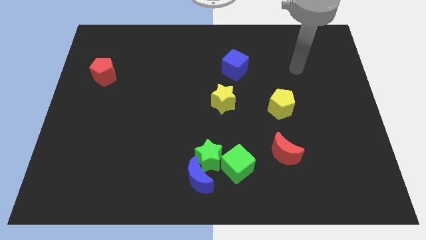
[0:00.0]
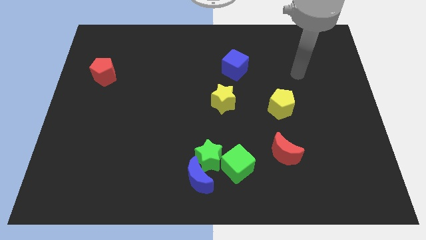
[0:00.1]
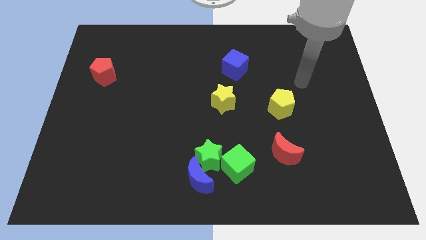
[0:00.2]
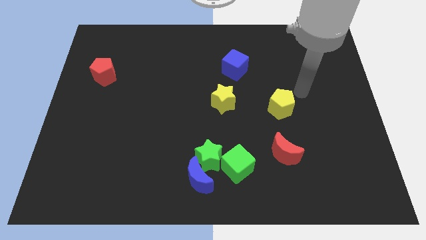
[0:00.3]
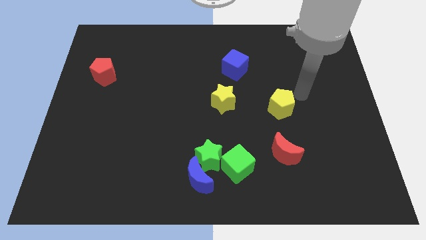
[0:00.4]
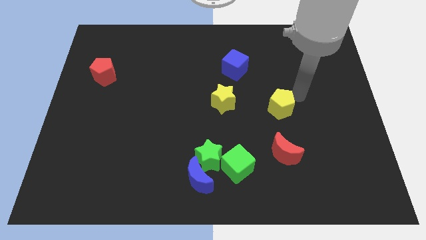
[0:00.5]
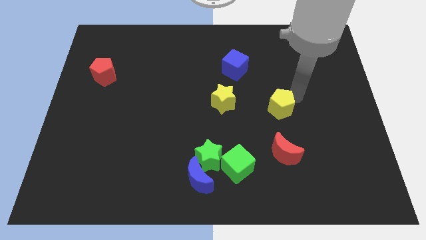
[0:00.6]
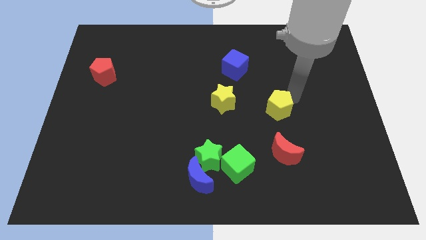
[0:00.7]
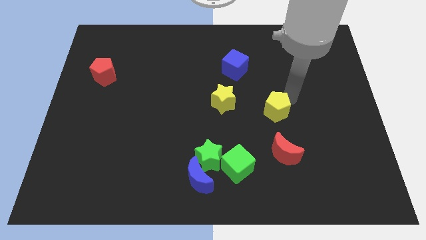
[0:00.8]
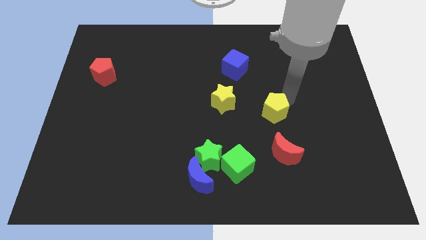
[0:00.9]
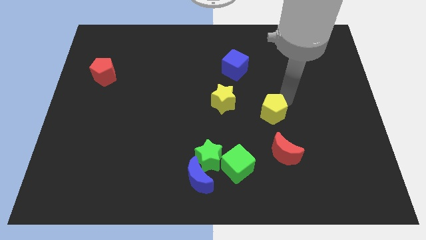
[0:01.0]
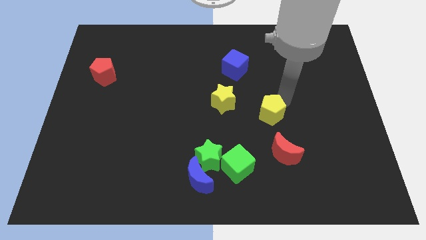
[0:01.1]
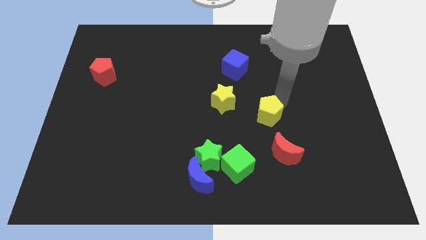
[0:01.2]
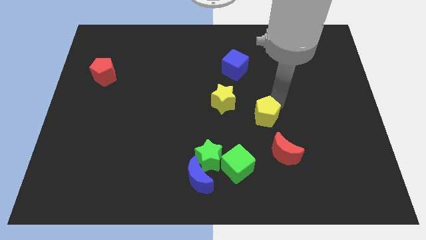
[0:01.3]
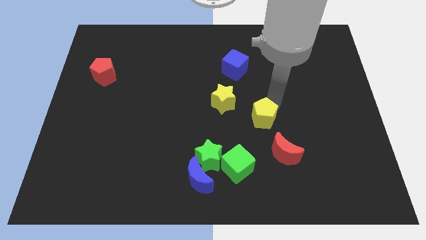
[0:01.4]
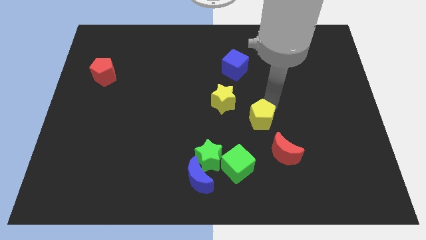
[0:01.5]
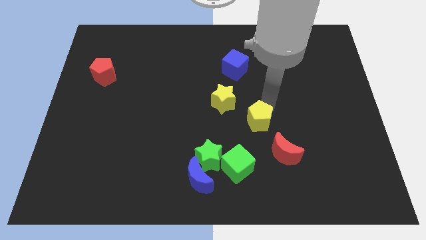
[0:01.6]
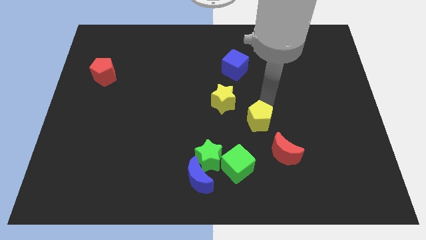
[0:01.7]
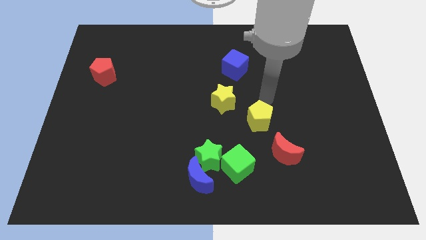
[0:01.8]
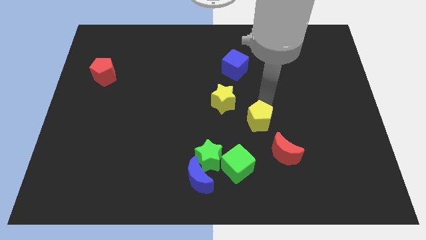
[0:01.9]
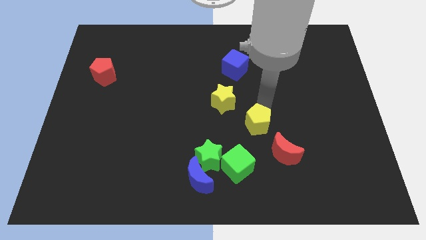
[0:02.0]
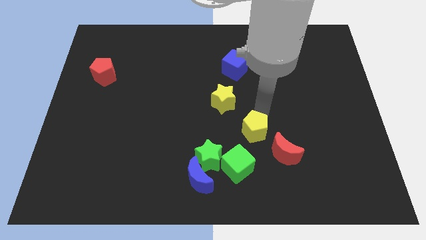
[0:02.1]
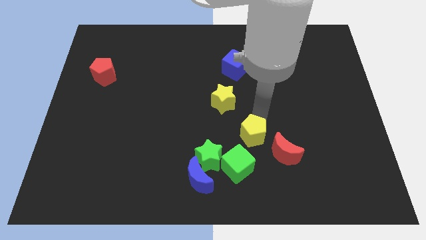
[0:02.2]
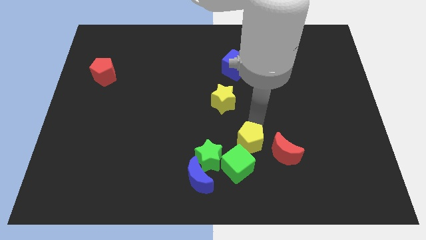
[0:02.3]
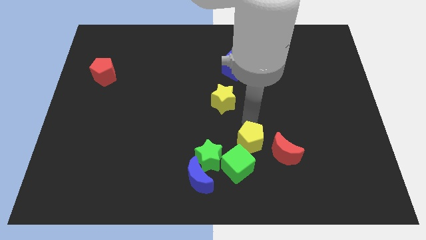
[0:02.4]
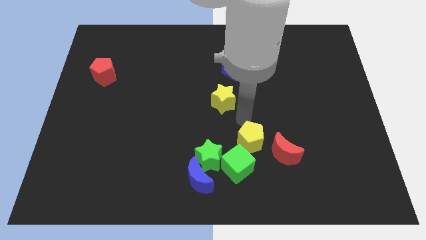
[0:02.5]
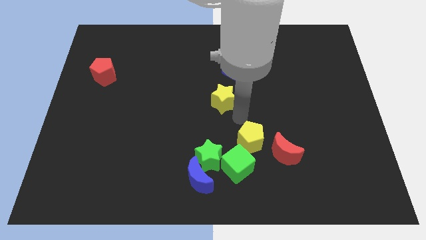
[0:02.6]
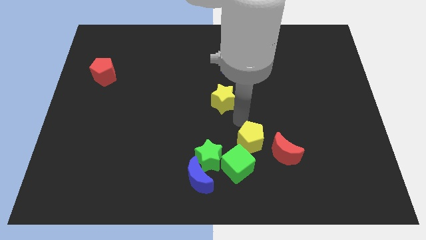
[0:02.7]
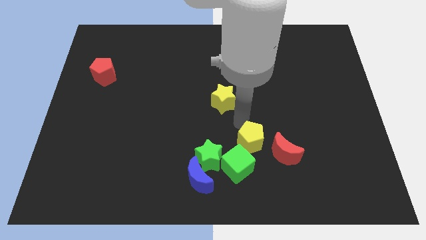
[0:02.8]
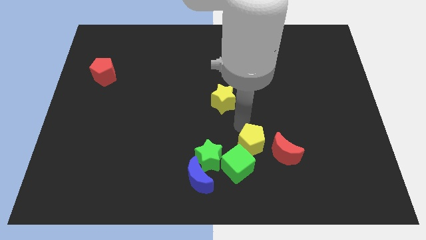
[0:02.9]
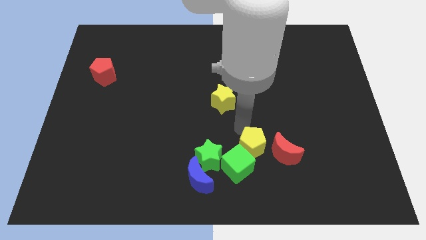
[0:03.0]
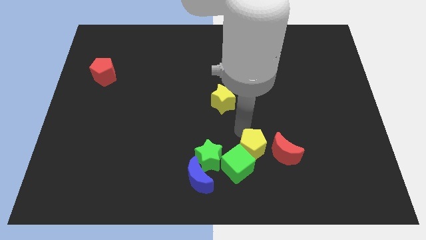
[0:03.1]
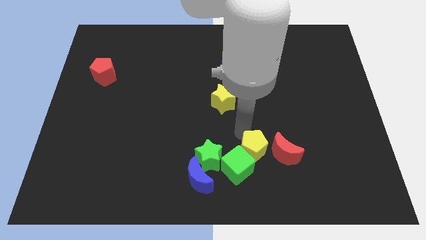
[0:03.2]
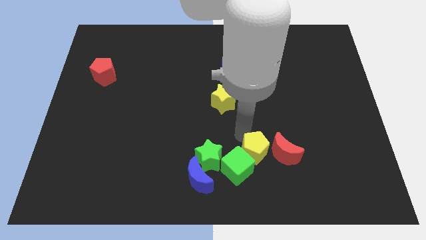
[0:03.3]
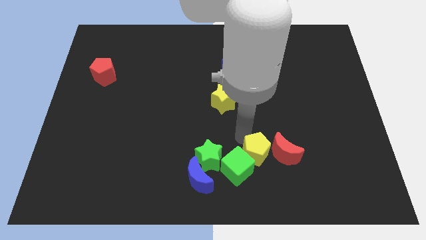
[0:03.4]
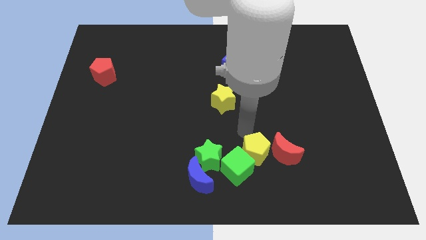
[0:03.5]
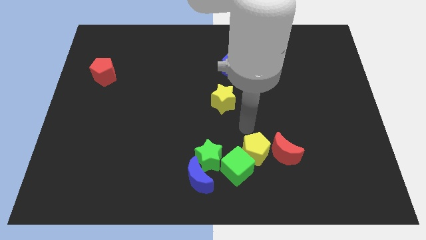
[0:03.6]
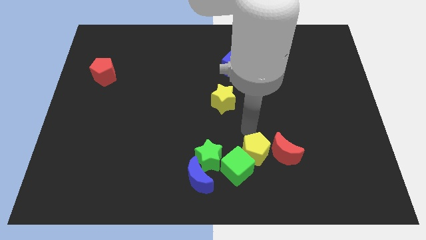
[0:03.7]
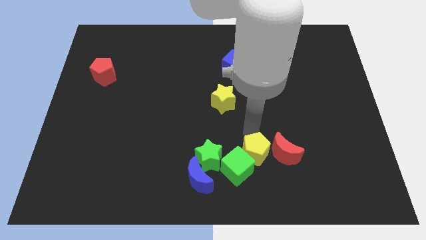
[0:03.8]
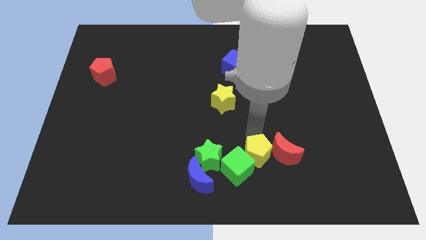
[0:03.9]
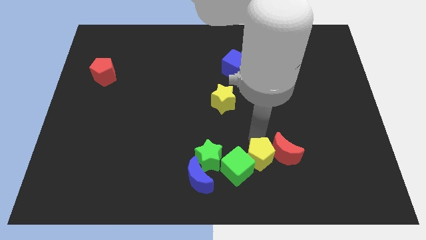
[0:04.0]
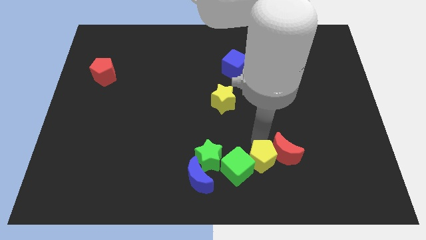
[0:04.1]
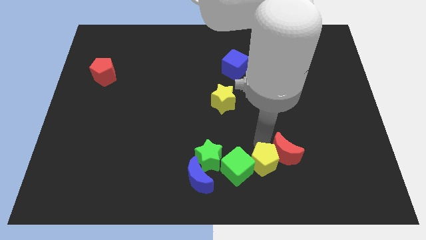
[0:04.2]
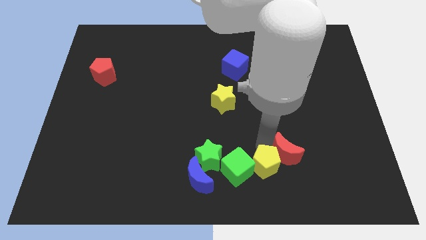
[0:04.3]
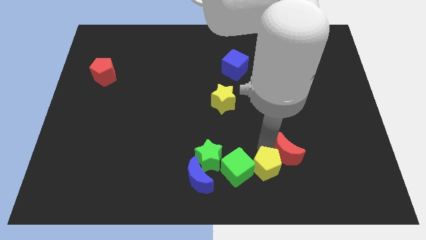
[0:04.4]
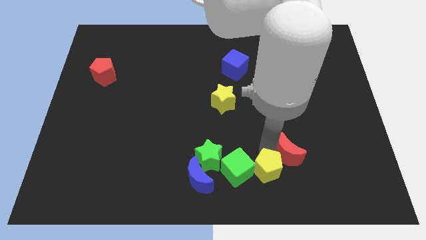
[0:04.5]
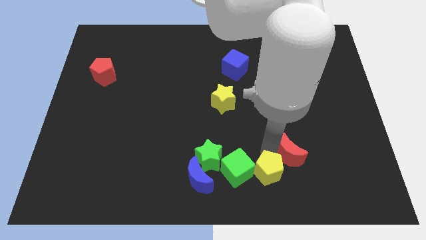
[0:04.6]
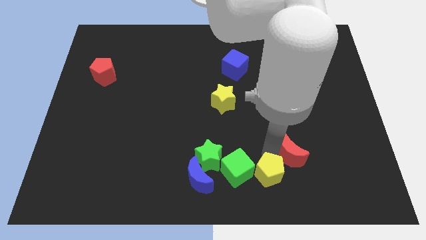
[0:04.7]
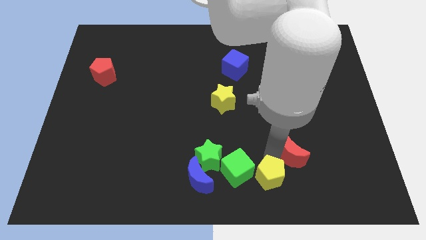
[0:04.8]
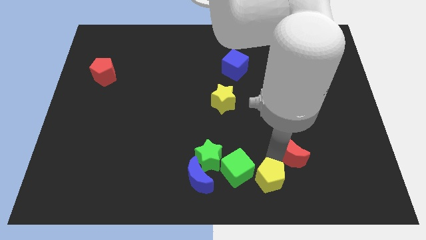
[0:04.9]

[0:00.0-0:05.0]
put the yellow pentagon to the bottom side

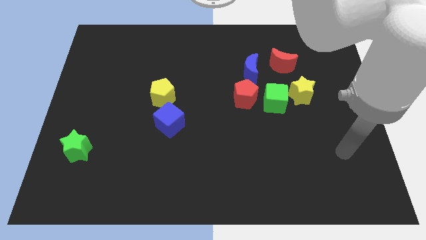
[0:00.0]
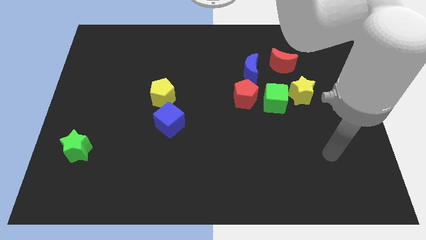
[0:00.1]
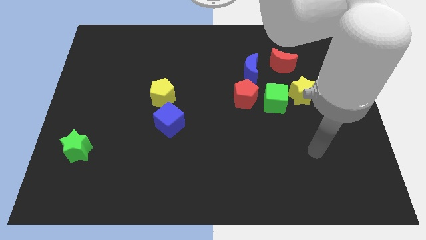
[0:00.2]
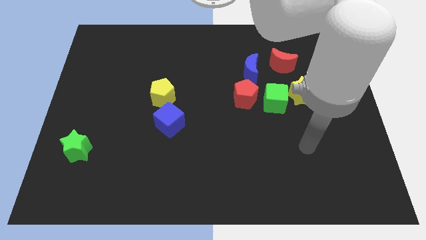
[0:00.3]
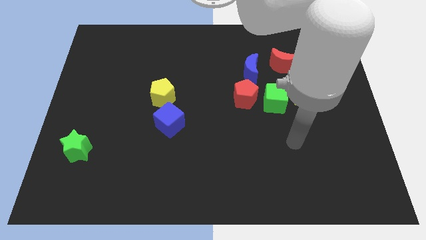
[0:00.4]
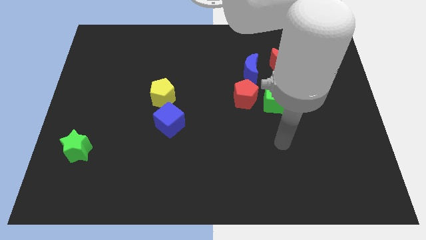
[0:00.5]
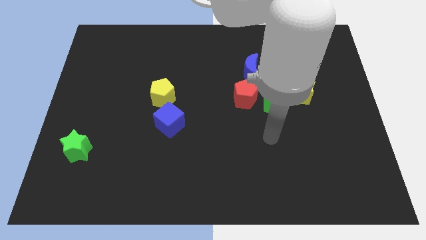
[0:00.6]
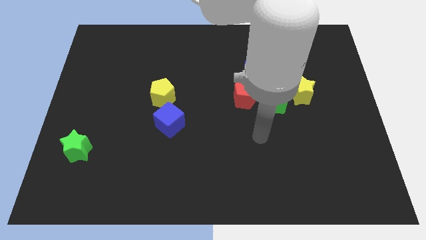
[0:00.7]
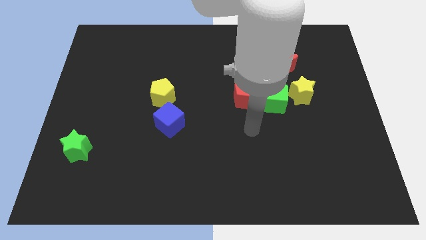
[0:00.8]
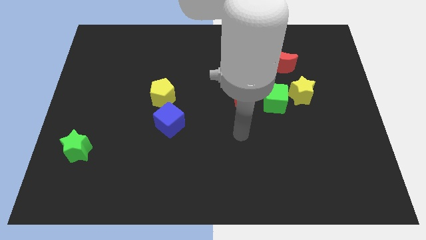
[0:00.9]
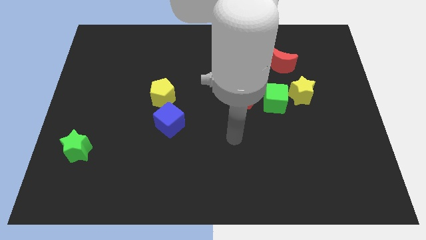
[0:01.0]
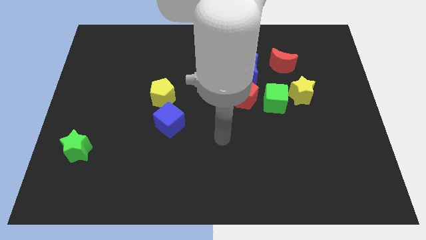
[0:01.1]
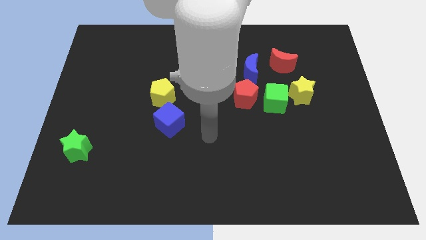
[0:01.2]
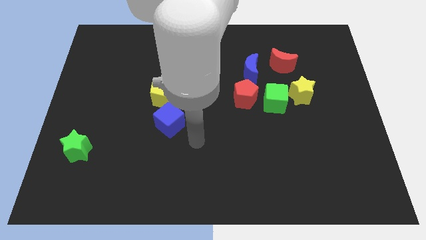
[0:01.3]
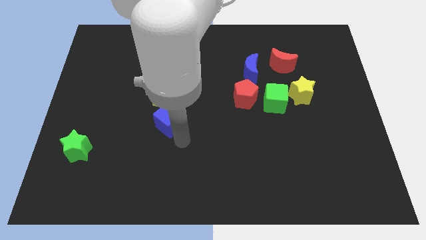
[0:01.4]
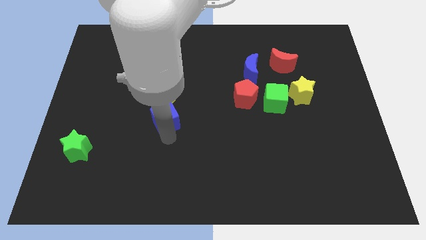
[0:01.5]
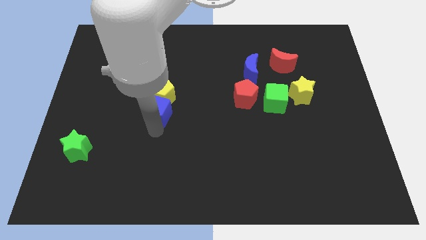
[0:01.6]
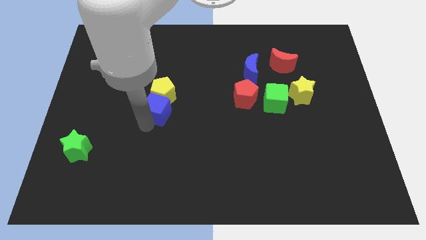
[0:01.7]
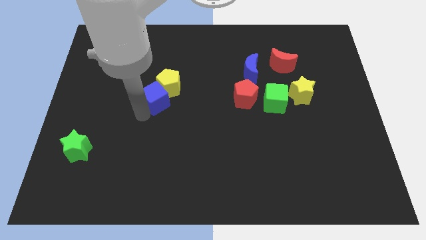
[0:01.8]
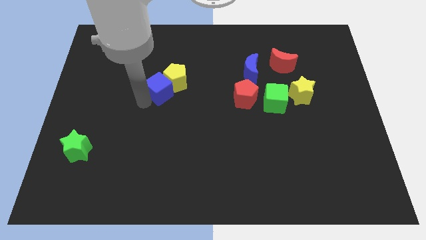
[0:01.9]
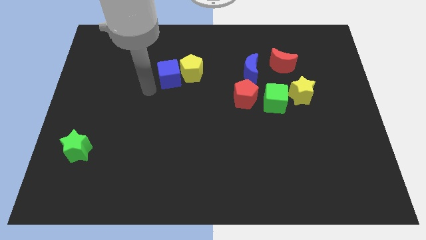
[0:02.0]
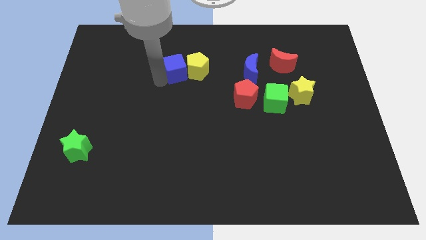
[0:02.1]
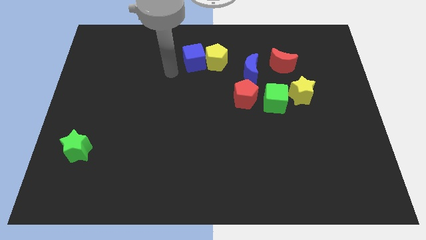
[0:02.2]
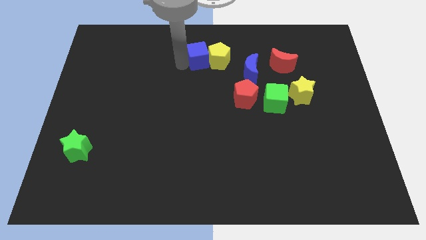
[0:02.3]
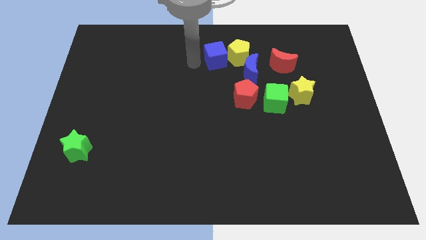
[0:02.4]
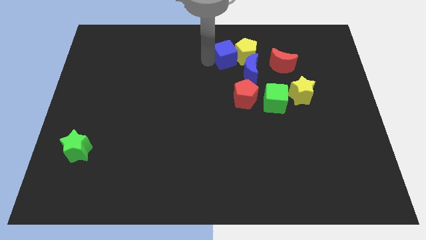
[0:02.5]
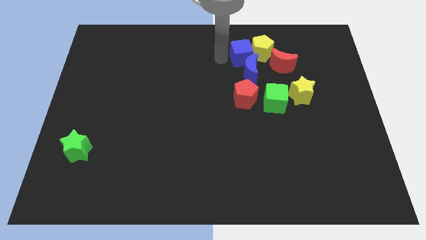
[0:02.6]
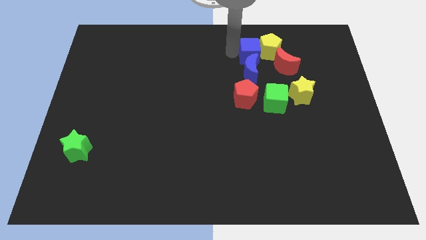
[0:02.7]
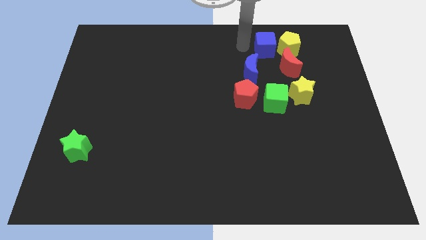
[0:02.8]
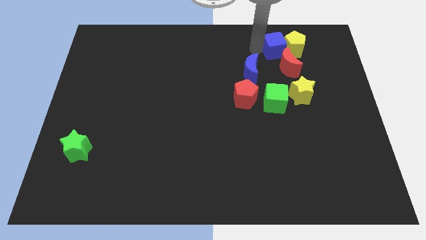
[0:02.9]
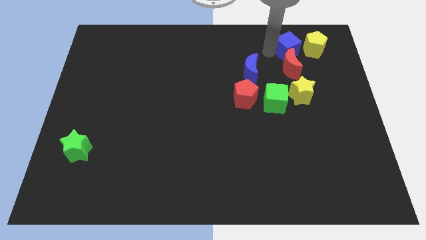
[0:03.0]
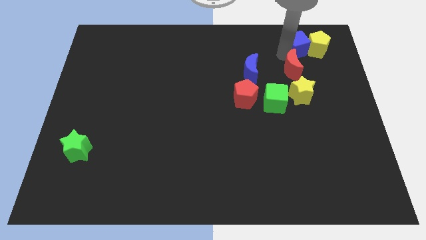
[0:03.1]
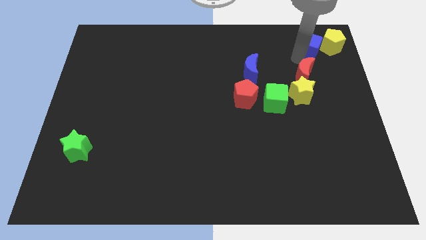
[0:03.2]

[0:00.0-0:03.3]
put the yellow pentagon to the top right corner
